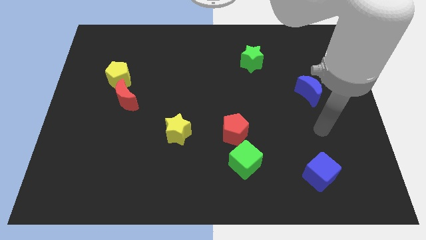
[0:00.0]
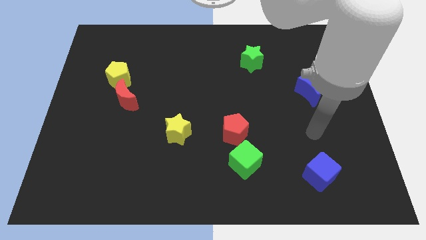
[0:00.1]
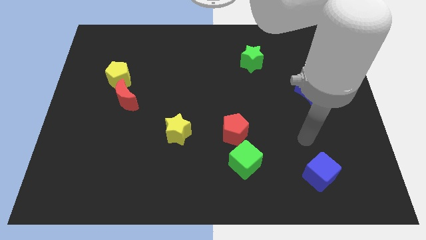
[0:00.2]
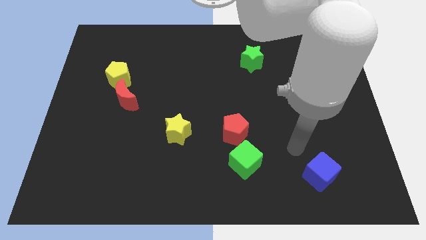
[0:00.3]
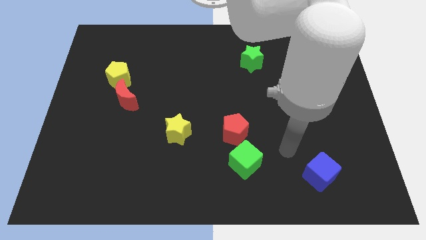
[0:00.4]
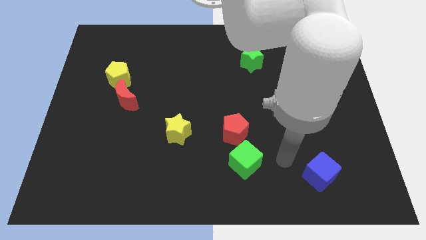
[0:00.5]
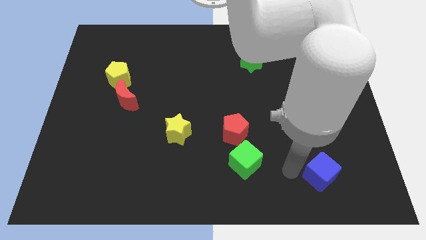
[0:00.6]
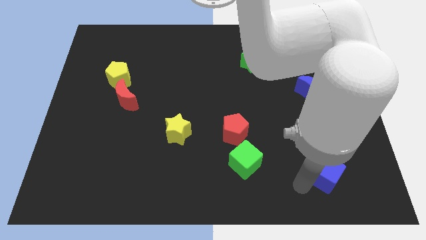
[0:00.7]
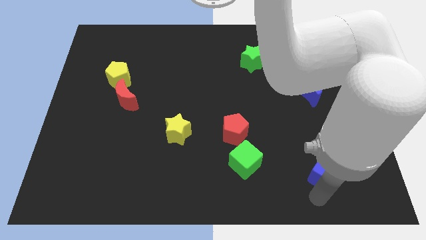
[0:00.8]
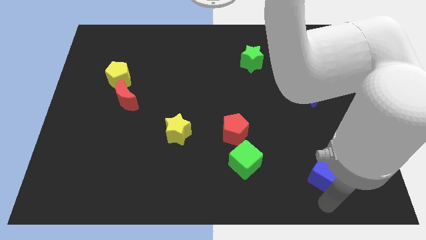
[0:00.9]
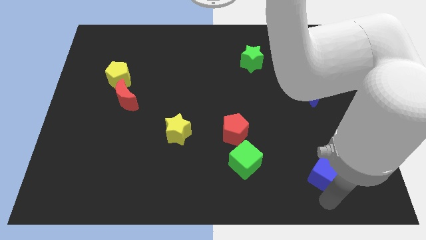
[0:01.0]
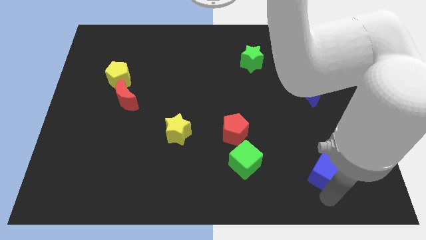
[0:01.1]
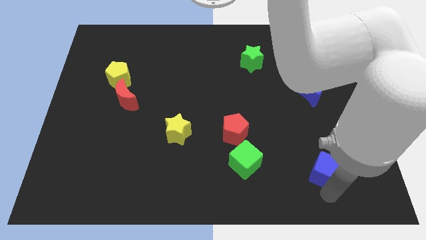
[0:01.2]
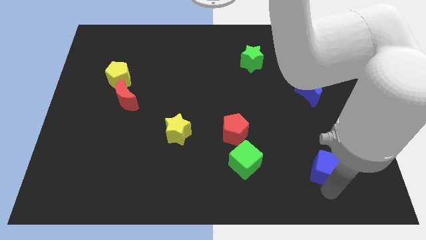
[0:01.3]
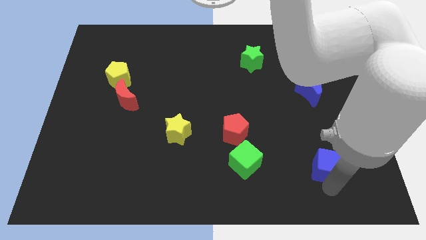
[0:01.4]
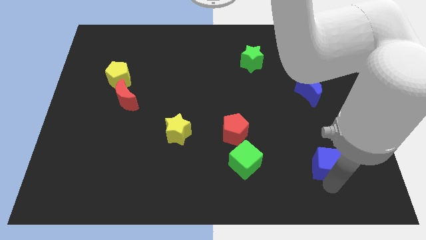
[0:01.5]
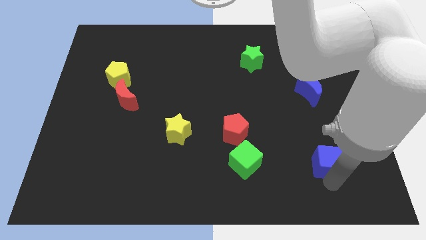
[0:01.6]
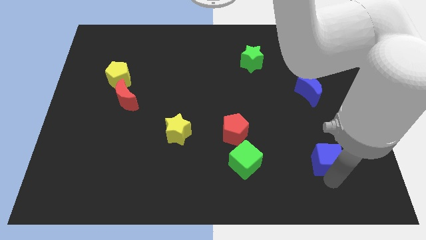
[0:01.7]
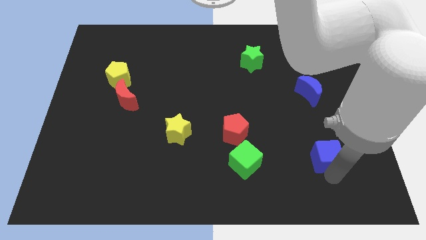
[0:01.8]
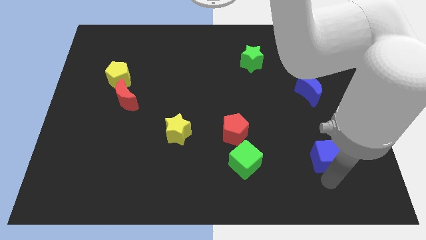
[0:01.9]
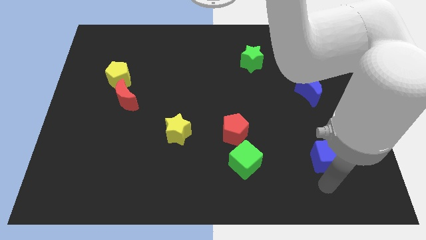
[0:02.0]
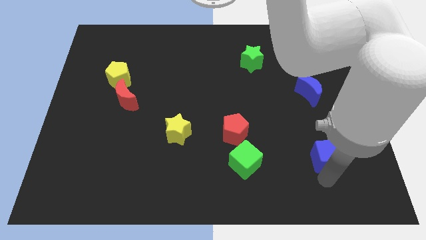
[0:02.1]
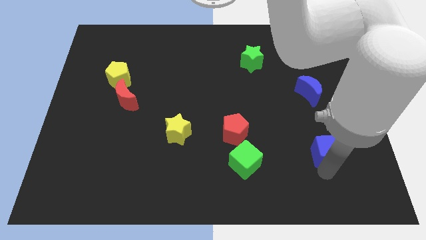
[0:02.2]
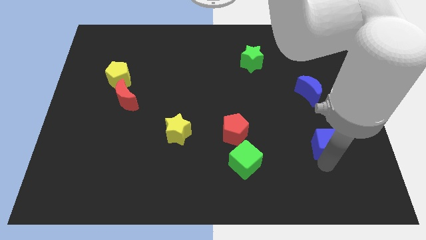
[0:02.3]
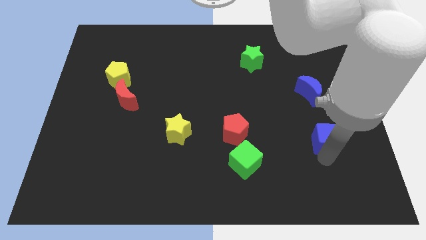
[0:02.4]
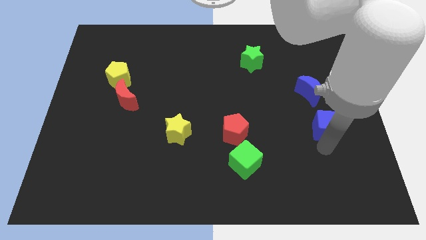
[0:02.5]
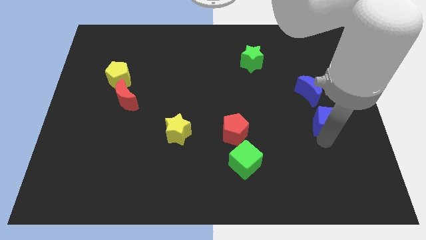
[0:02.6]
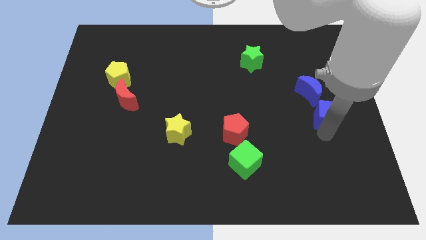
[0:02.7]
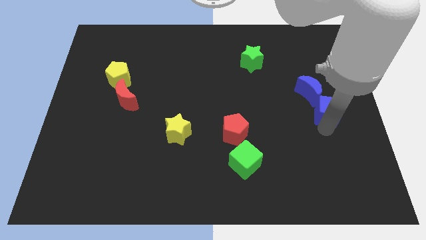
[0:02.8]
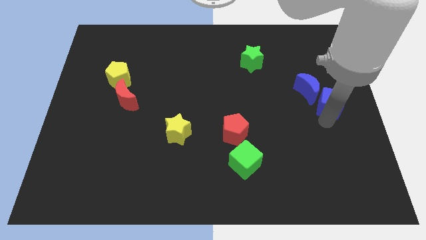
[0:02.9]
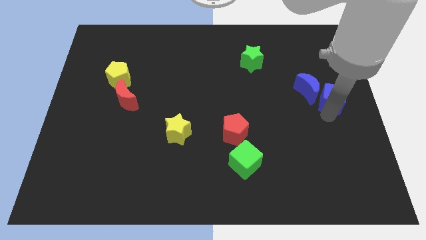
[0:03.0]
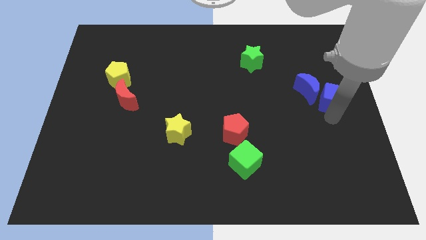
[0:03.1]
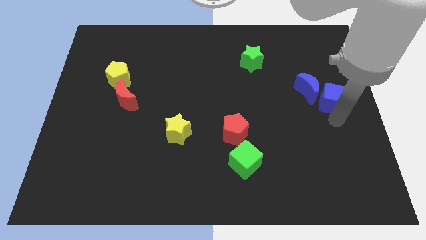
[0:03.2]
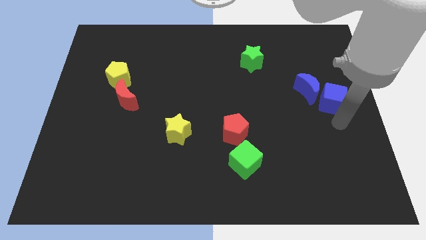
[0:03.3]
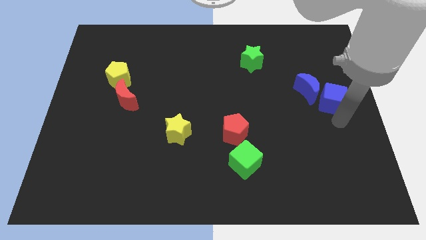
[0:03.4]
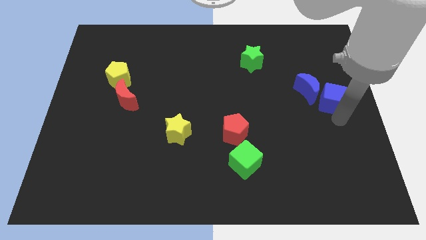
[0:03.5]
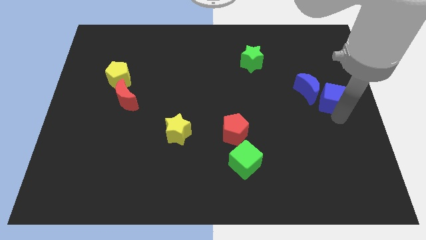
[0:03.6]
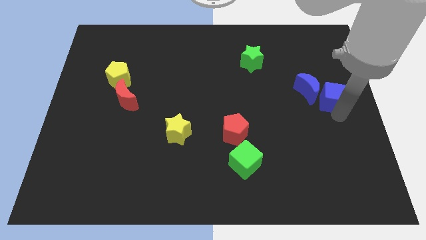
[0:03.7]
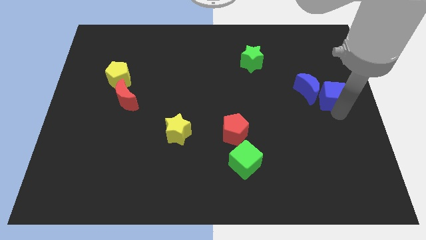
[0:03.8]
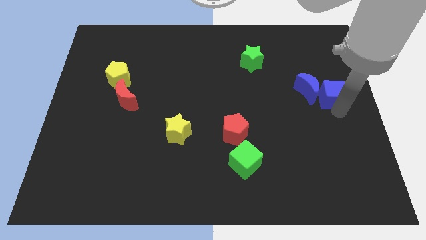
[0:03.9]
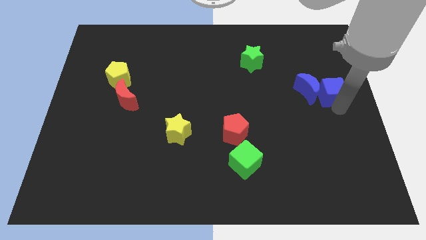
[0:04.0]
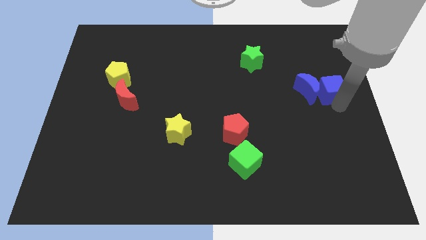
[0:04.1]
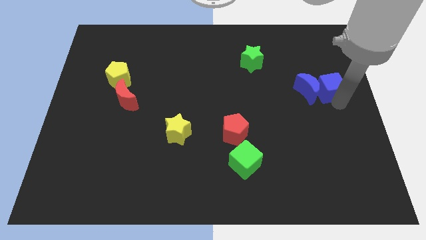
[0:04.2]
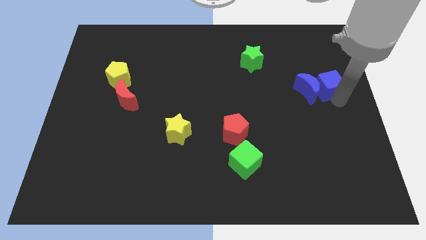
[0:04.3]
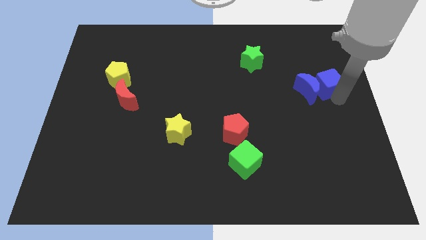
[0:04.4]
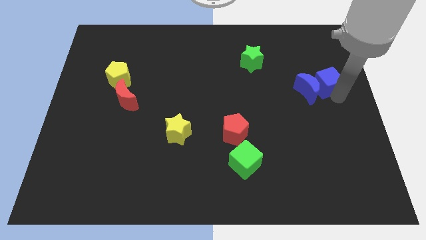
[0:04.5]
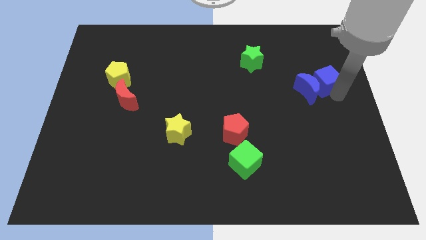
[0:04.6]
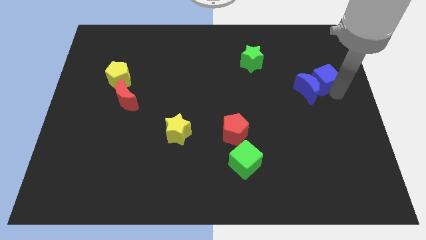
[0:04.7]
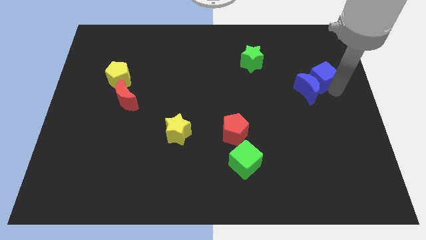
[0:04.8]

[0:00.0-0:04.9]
push the blue cube to the top of the blue moon

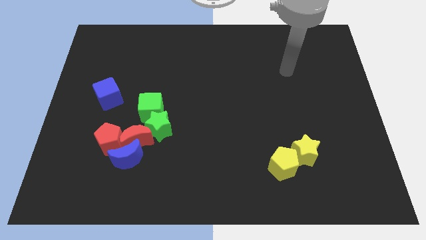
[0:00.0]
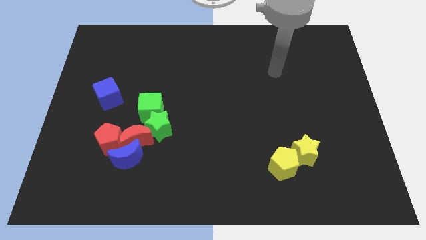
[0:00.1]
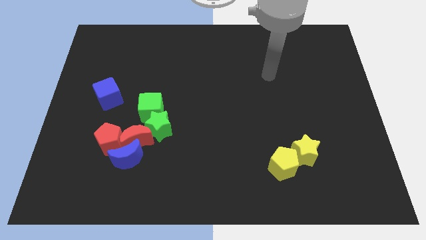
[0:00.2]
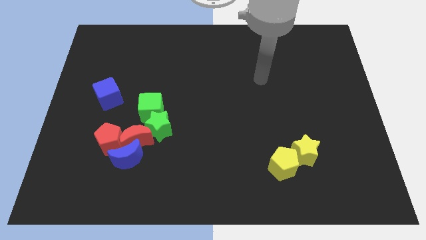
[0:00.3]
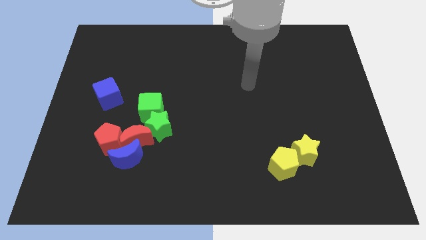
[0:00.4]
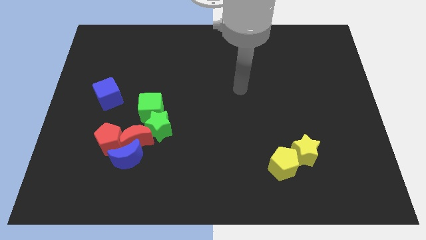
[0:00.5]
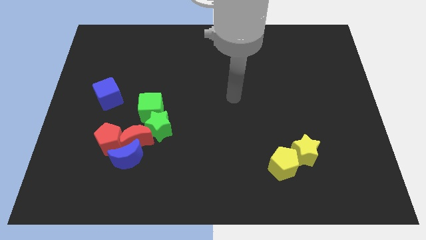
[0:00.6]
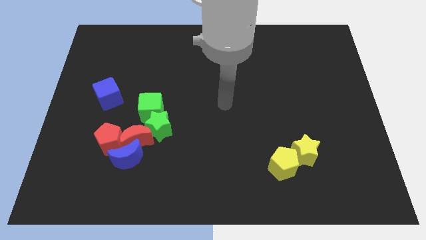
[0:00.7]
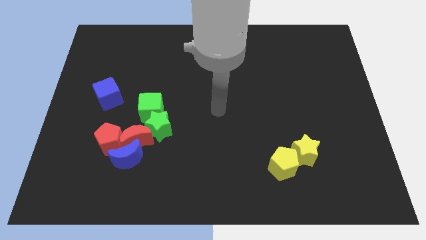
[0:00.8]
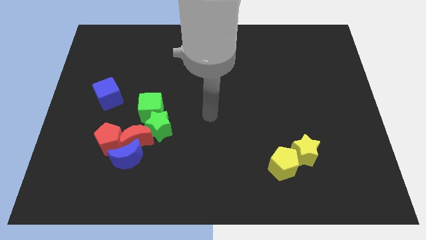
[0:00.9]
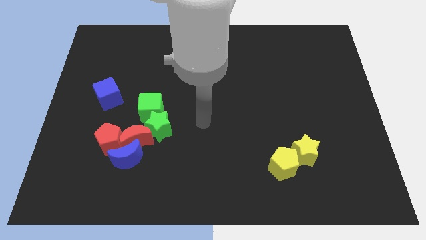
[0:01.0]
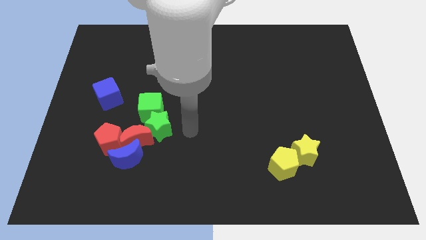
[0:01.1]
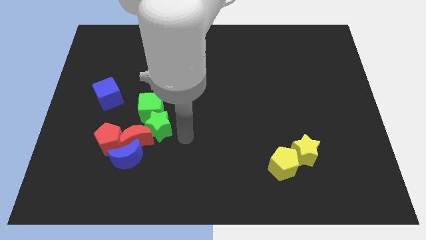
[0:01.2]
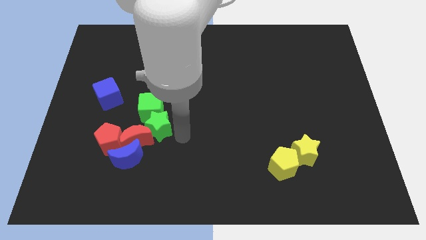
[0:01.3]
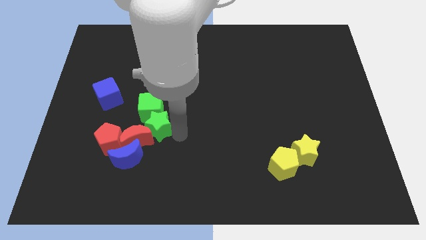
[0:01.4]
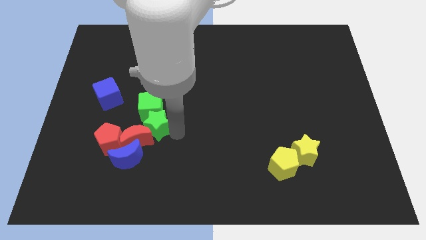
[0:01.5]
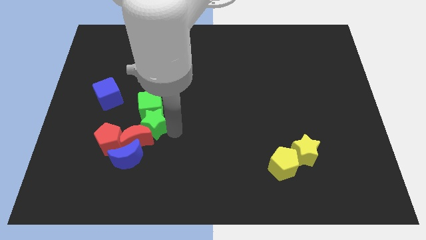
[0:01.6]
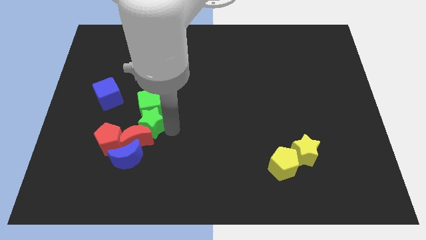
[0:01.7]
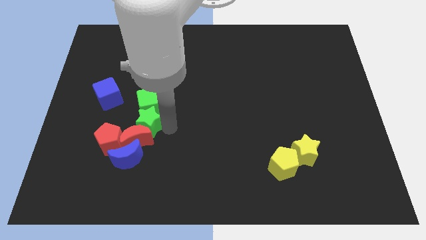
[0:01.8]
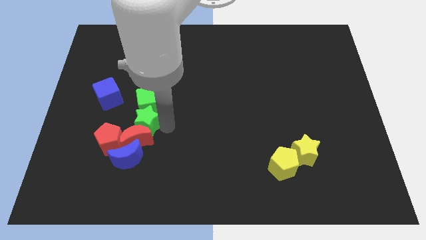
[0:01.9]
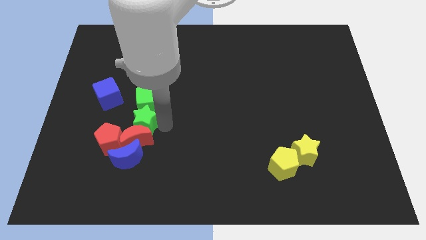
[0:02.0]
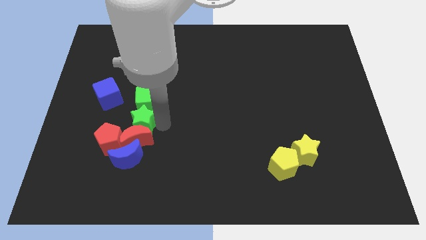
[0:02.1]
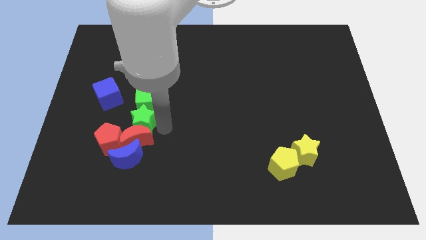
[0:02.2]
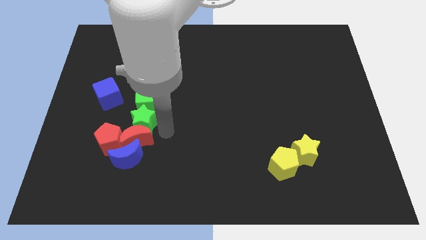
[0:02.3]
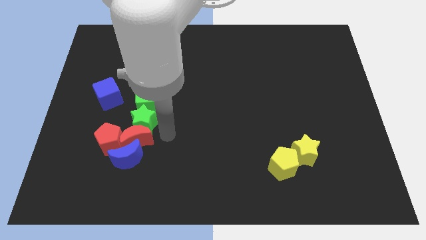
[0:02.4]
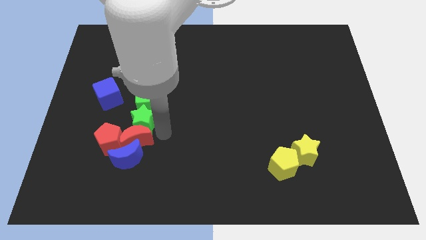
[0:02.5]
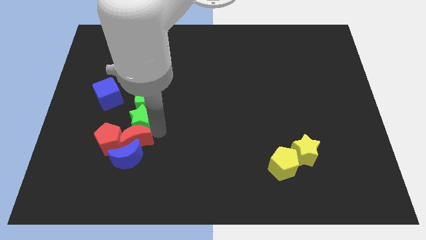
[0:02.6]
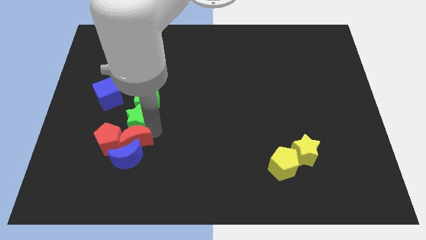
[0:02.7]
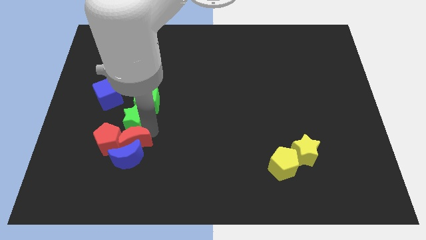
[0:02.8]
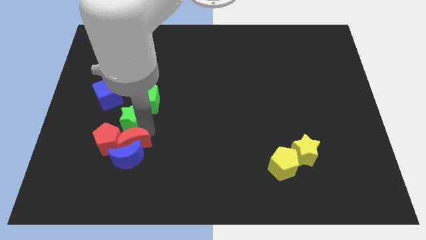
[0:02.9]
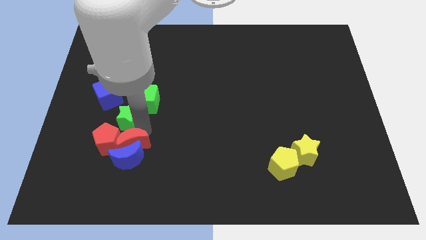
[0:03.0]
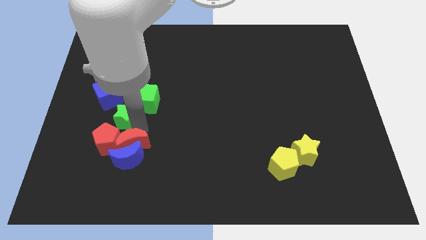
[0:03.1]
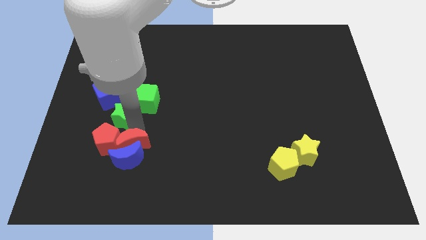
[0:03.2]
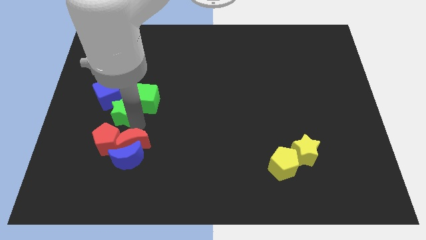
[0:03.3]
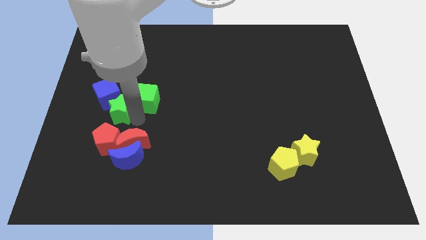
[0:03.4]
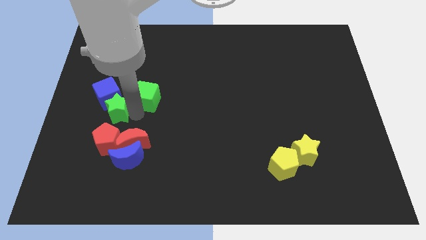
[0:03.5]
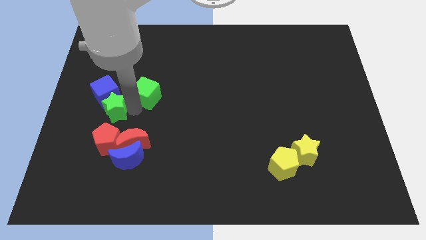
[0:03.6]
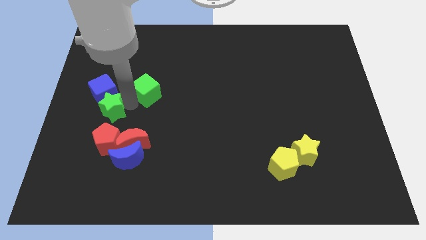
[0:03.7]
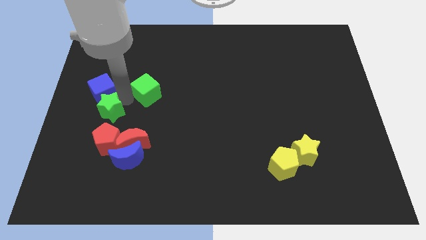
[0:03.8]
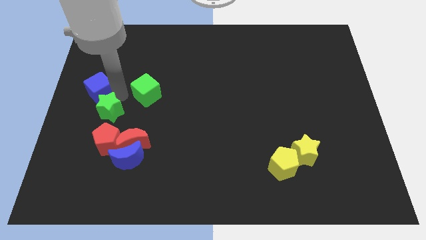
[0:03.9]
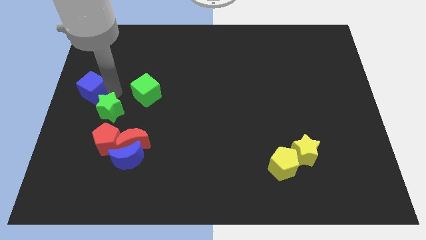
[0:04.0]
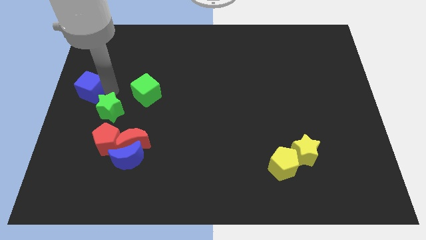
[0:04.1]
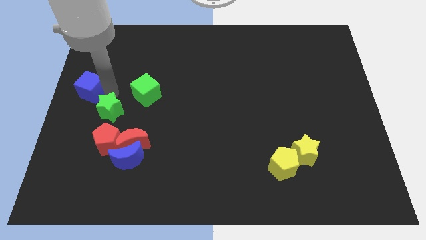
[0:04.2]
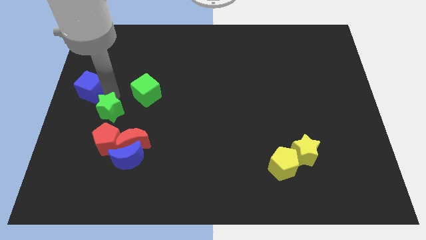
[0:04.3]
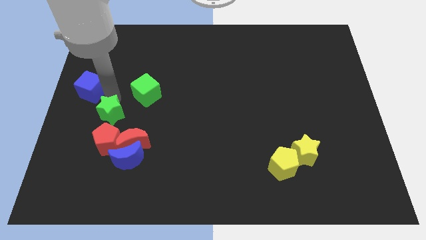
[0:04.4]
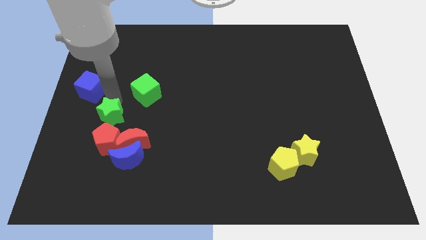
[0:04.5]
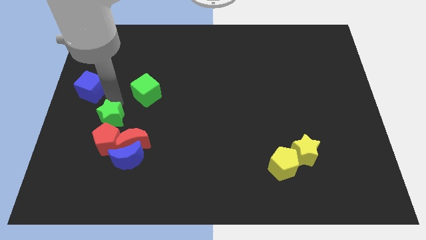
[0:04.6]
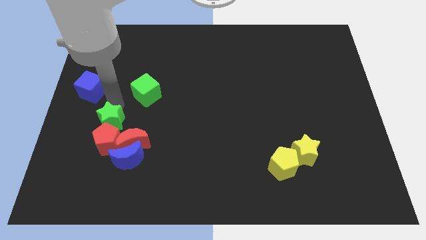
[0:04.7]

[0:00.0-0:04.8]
put the green star to the top left of the blue moon
